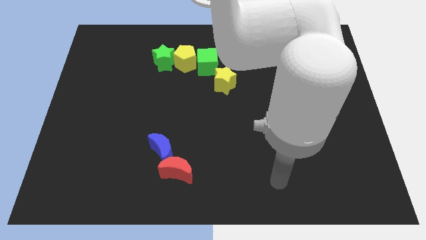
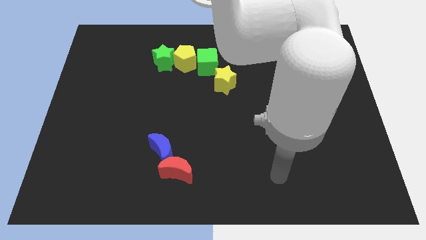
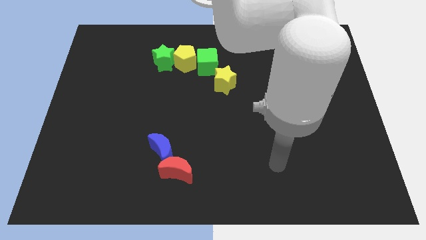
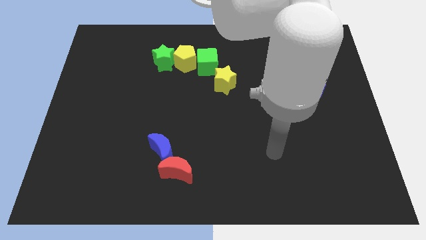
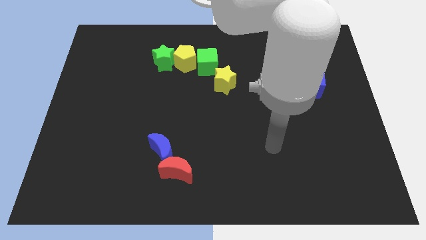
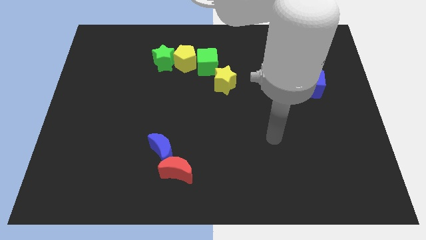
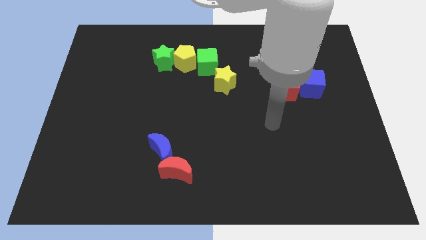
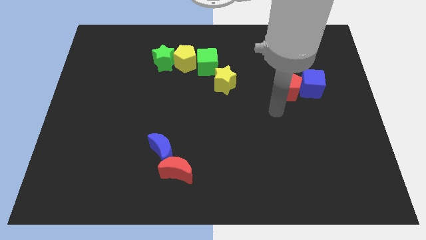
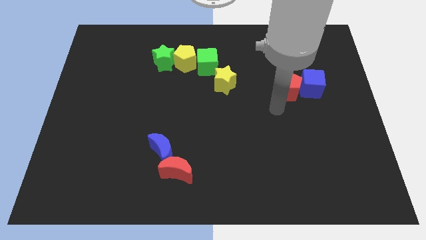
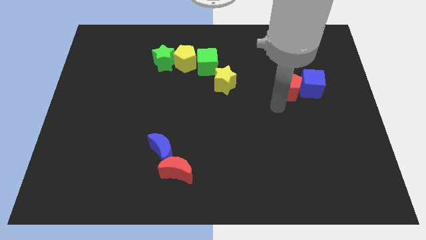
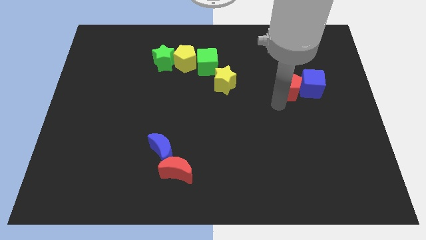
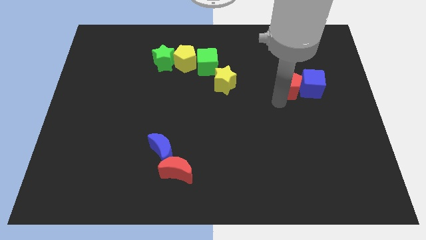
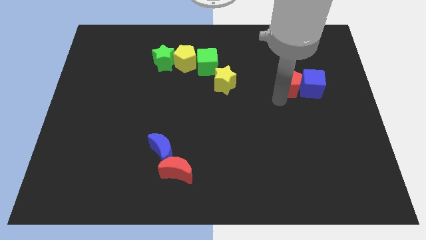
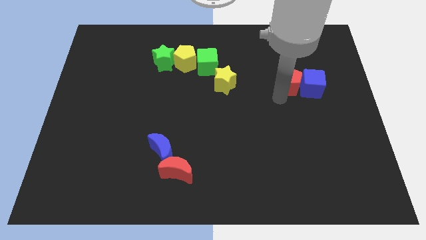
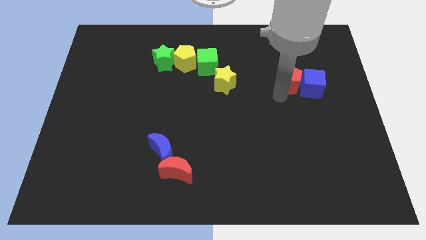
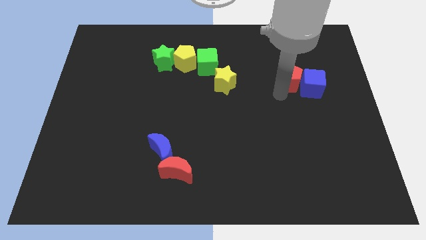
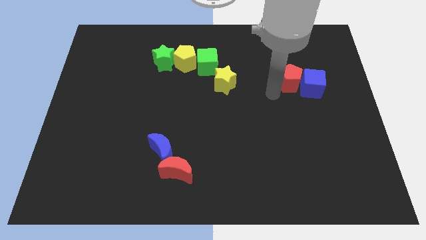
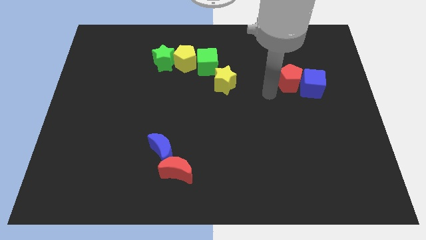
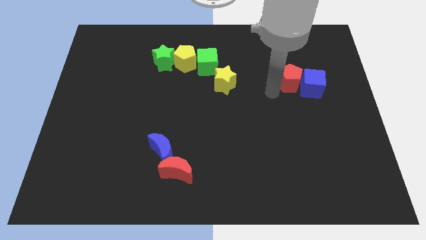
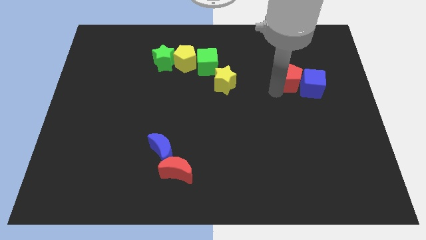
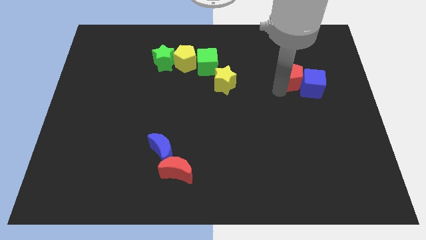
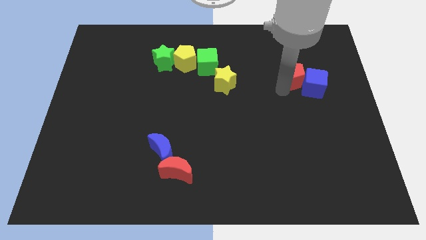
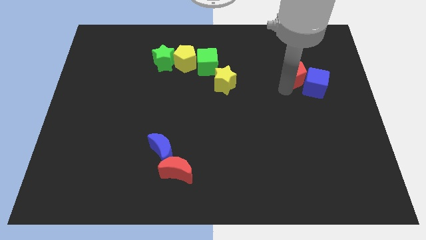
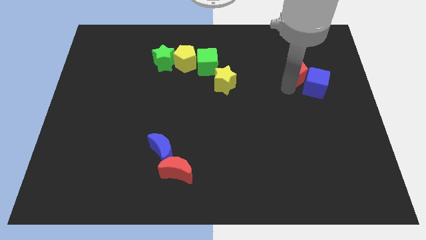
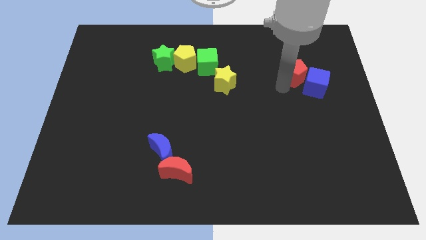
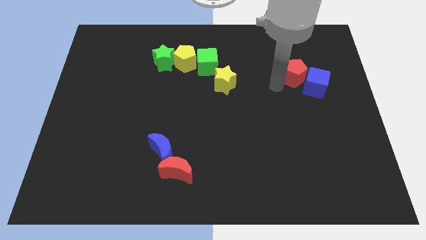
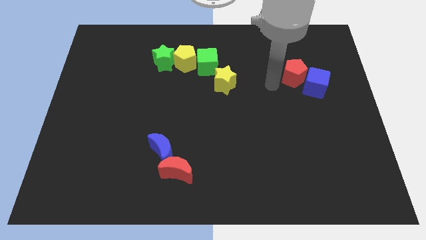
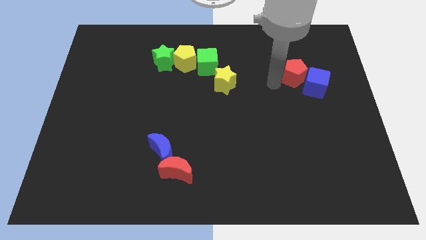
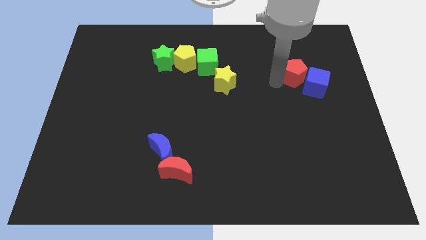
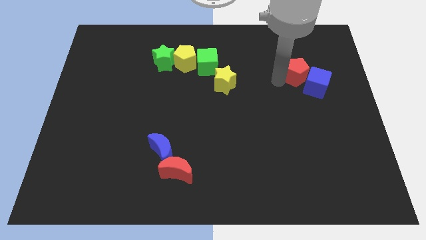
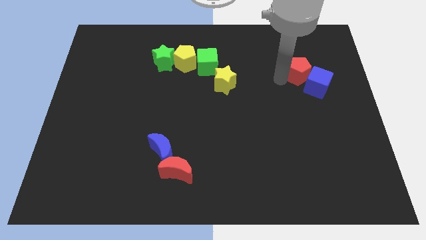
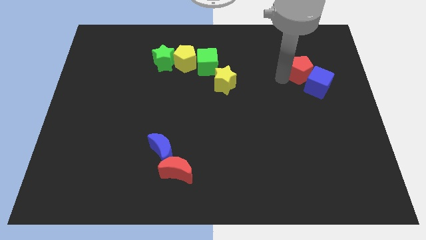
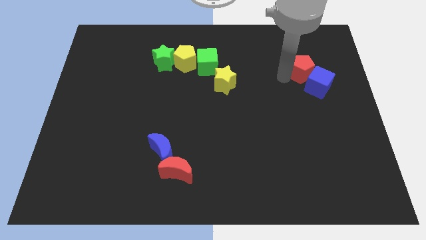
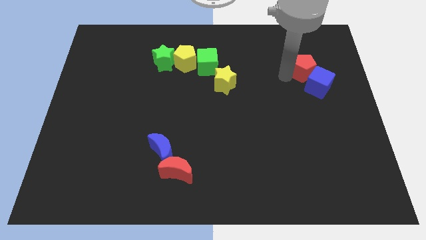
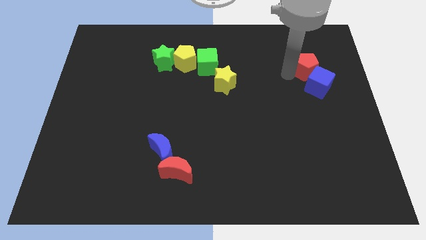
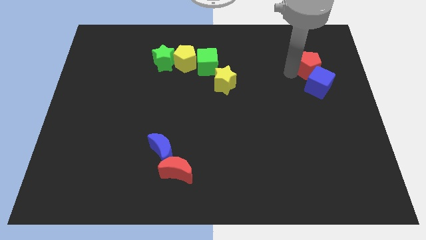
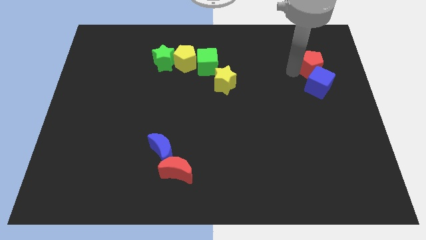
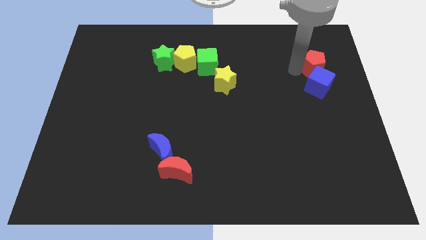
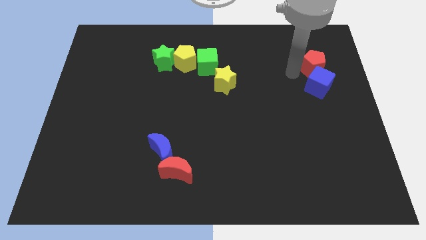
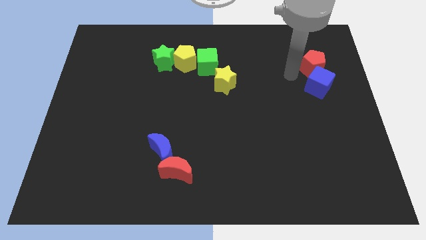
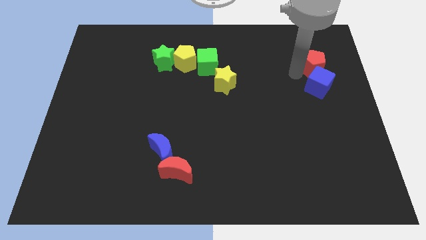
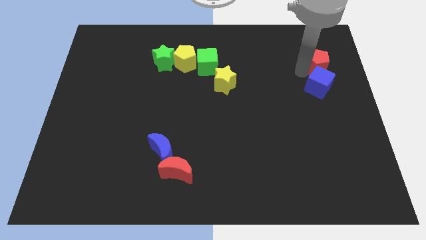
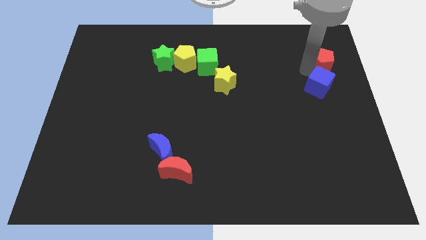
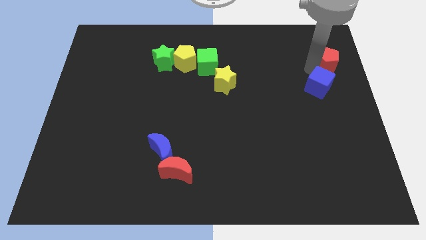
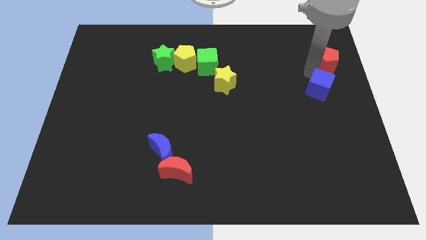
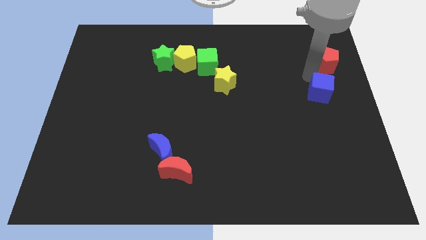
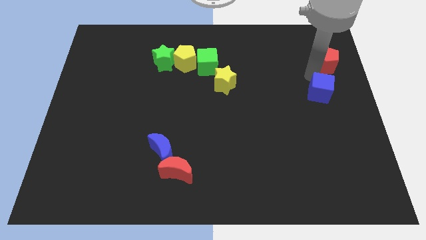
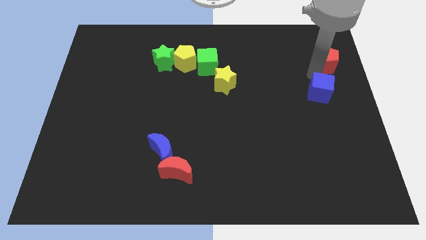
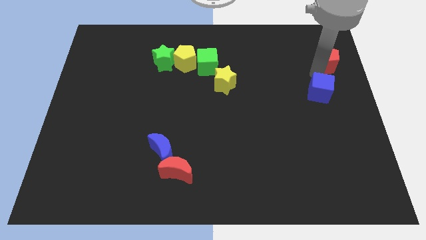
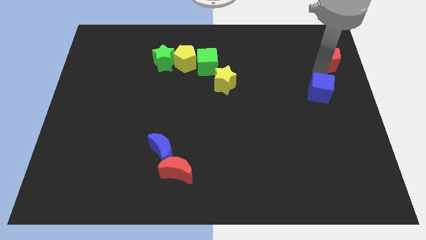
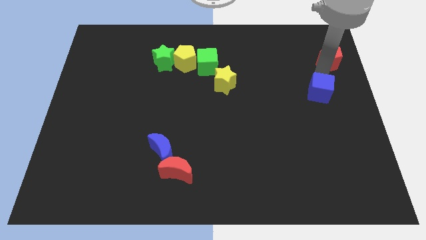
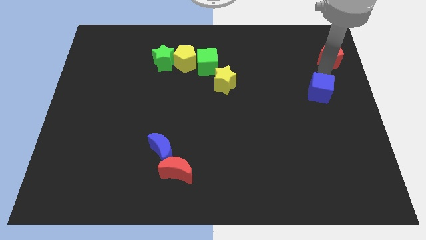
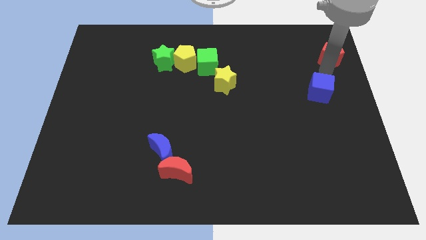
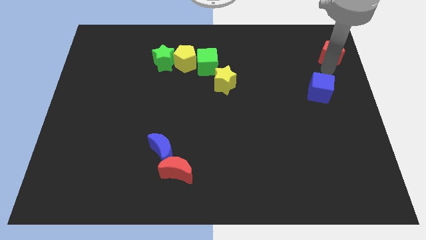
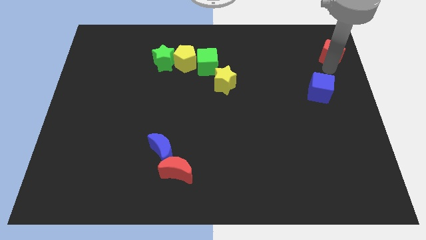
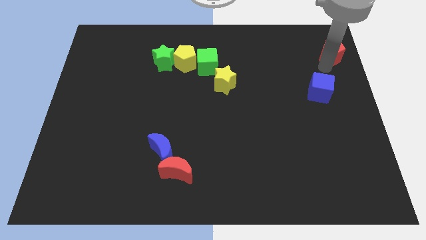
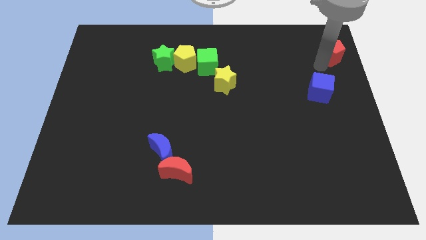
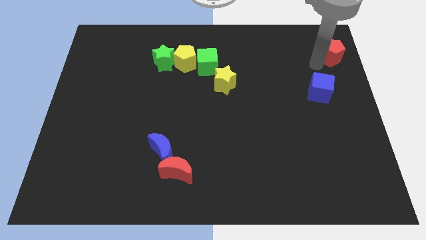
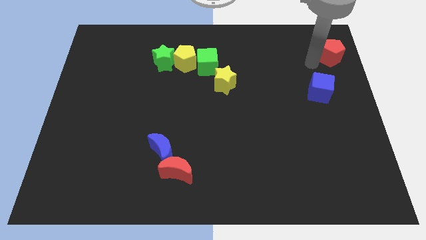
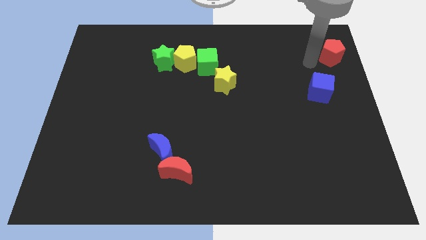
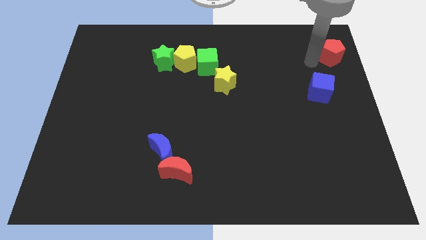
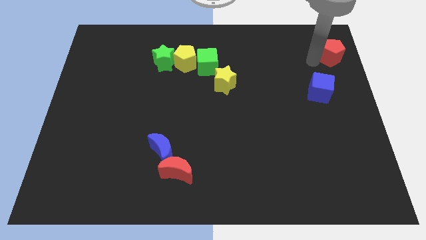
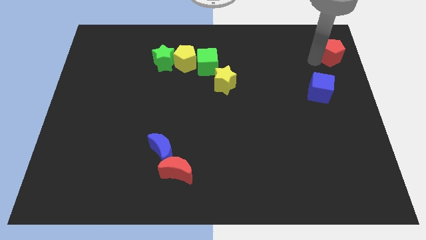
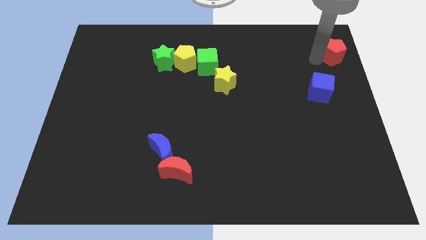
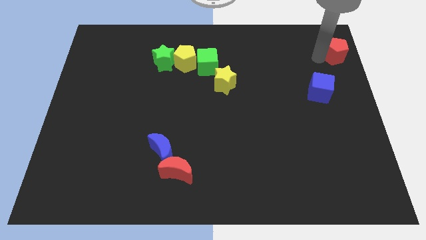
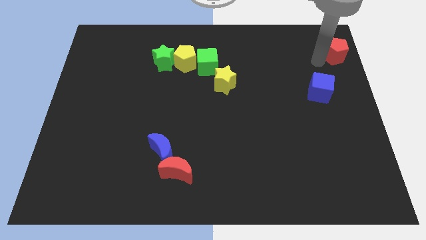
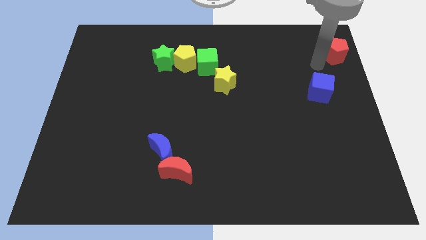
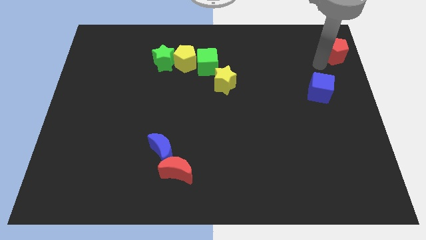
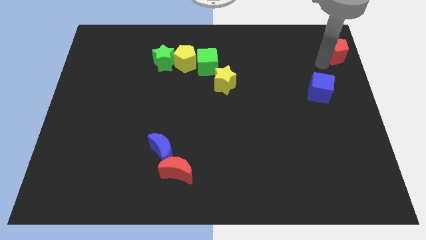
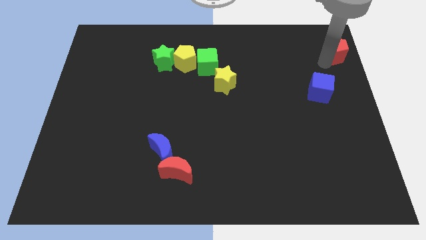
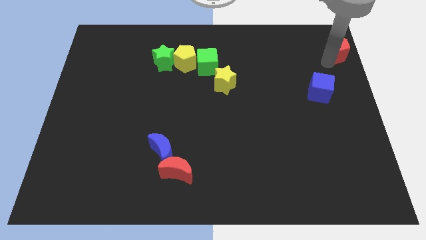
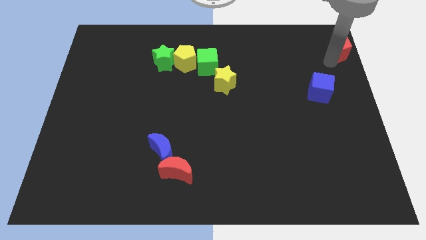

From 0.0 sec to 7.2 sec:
slide the red pentagon to the upper right corner

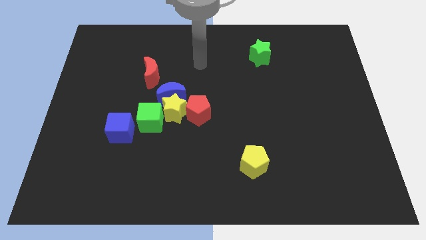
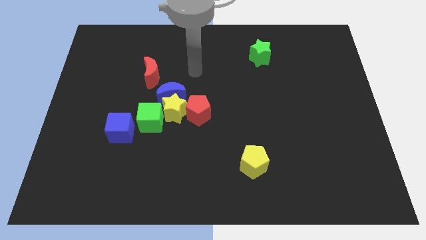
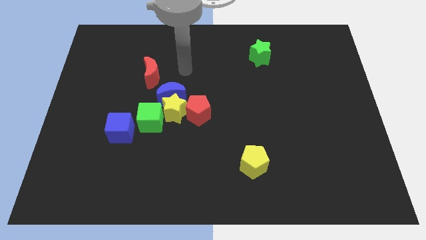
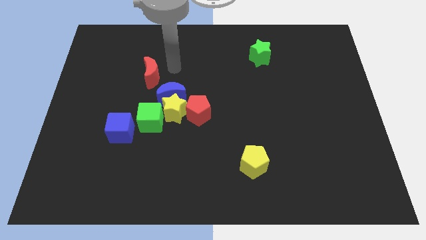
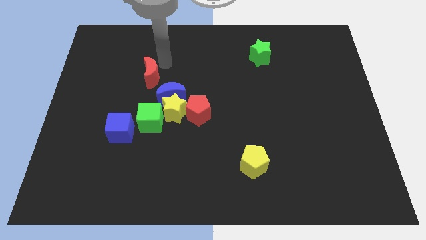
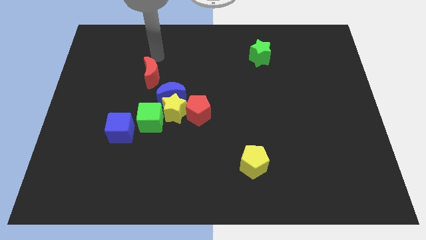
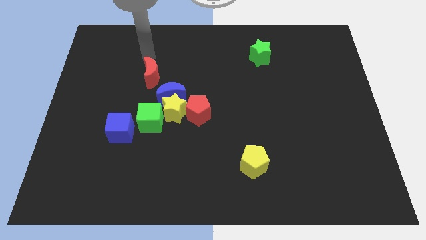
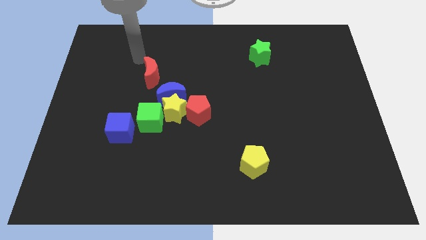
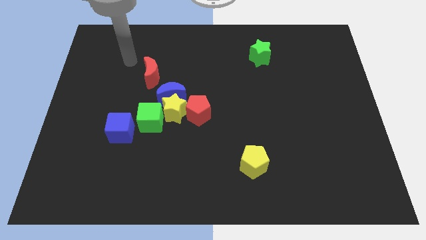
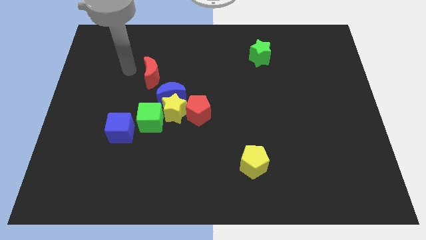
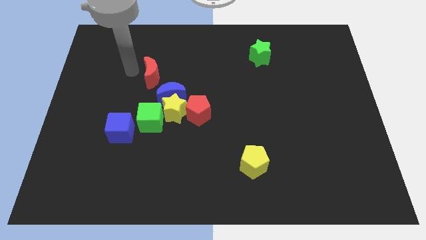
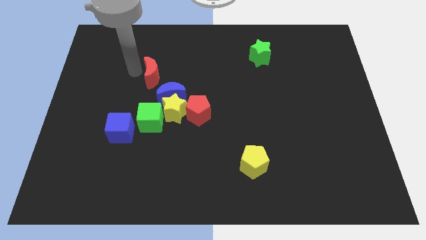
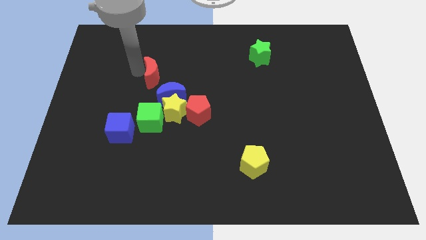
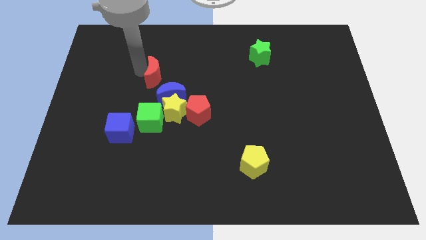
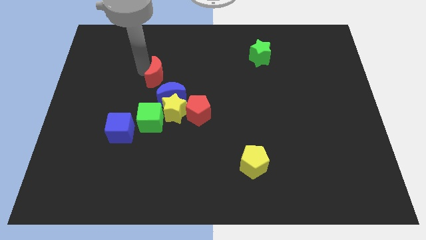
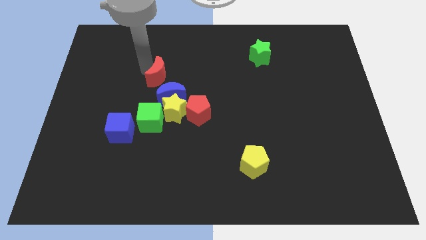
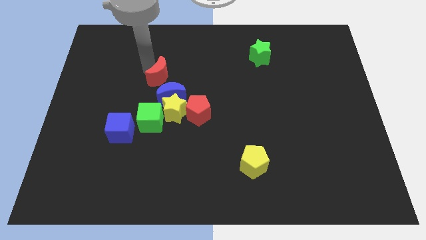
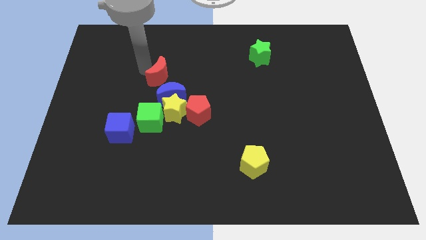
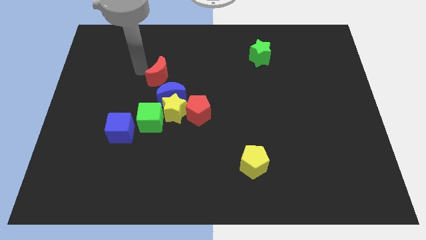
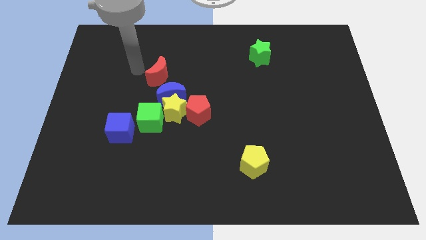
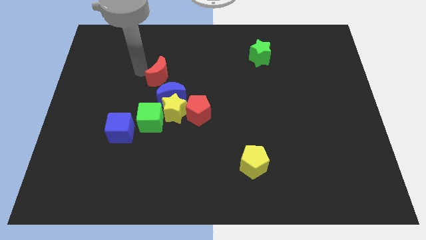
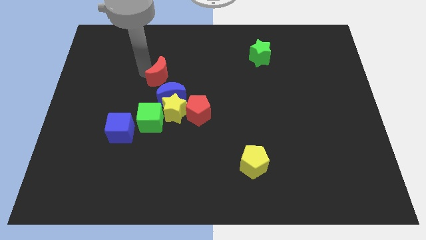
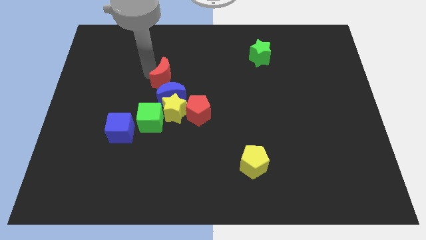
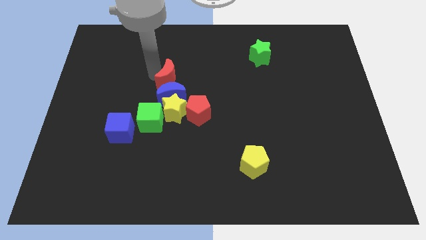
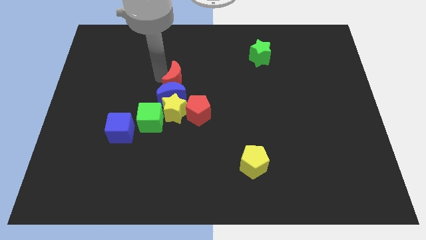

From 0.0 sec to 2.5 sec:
put the red moon to the center of the board
